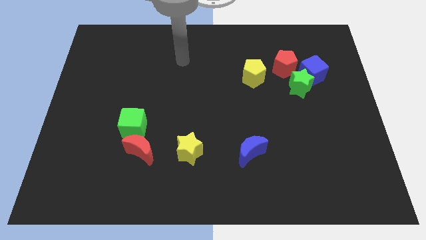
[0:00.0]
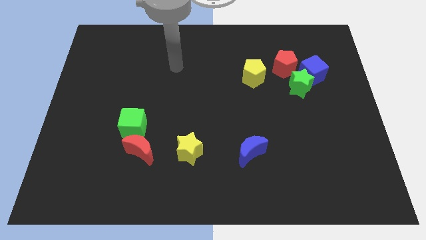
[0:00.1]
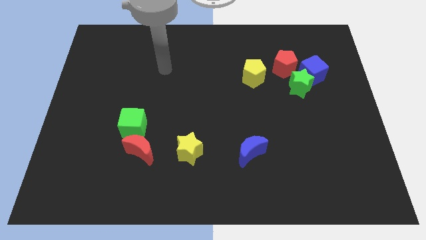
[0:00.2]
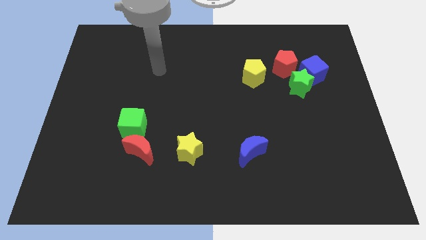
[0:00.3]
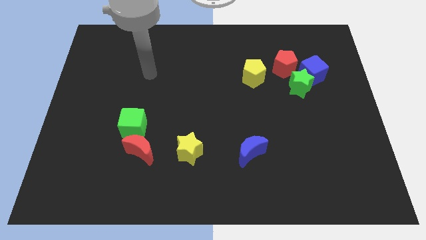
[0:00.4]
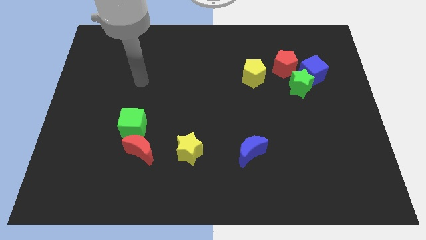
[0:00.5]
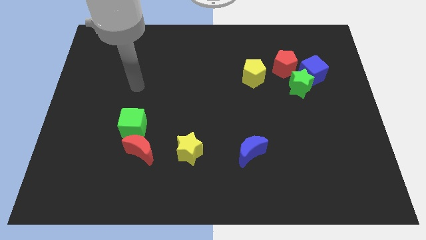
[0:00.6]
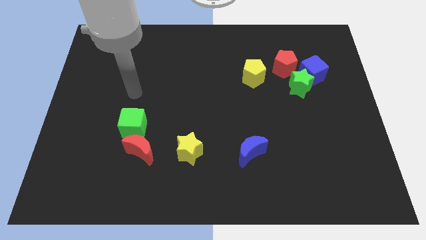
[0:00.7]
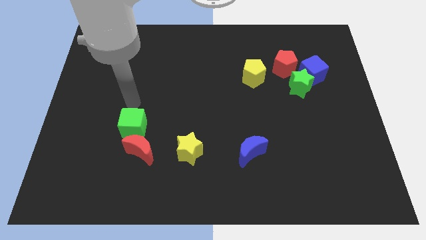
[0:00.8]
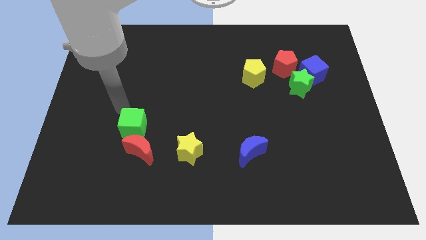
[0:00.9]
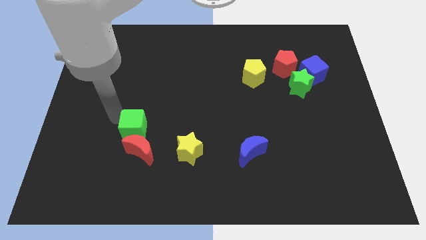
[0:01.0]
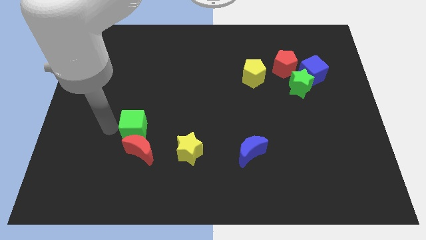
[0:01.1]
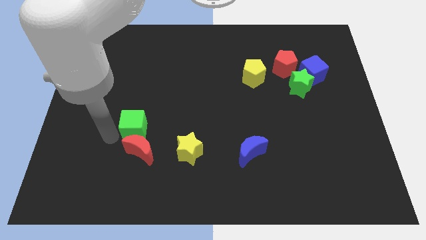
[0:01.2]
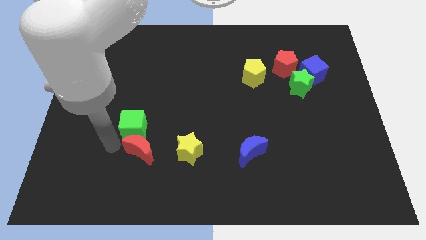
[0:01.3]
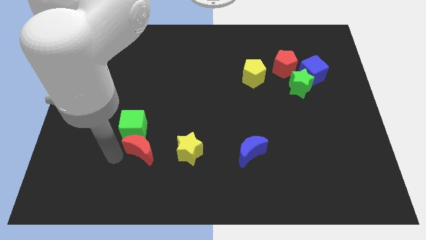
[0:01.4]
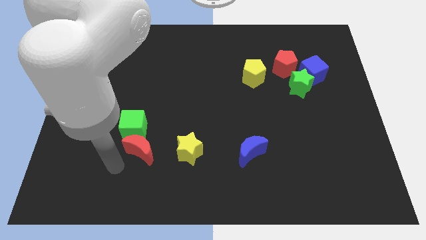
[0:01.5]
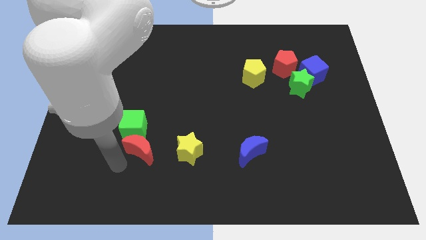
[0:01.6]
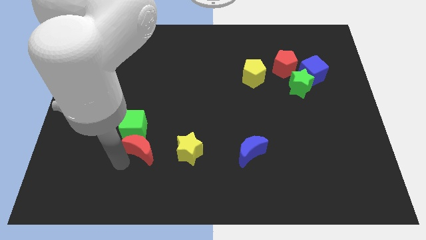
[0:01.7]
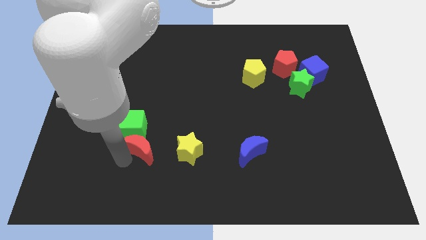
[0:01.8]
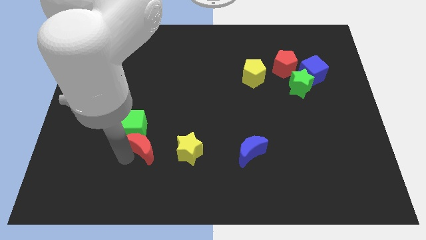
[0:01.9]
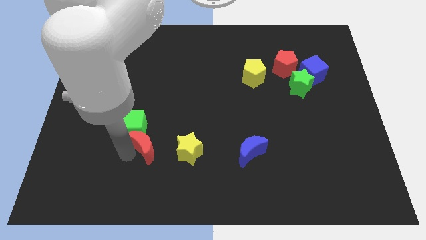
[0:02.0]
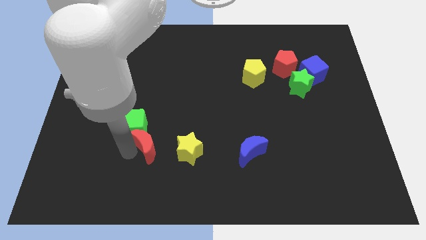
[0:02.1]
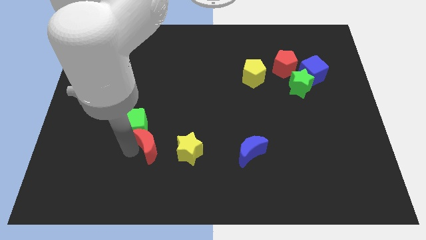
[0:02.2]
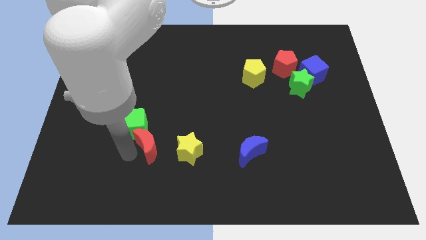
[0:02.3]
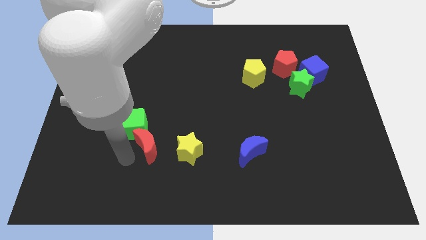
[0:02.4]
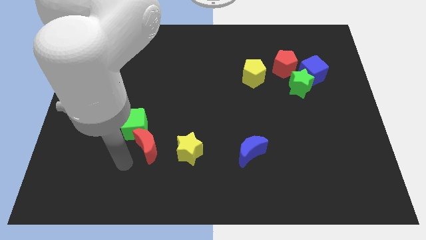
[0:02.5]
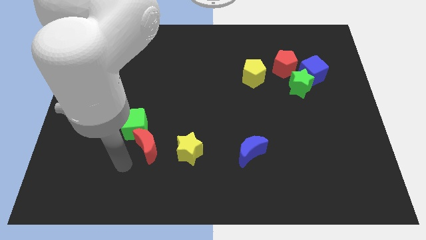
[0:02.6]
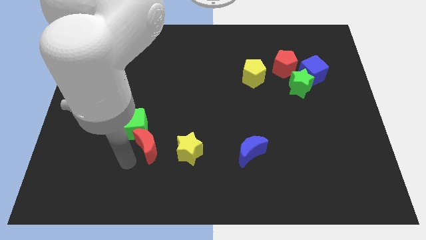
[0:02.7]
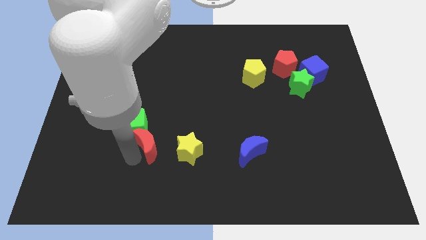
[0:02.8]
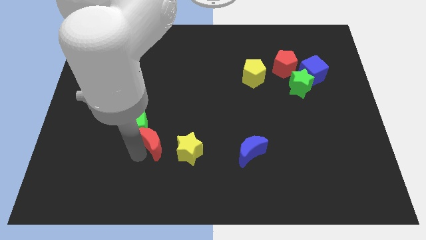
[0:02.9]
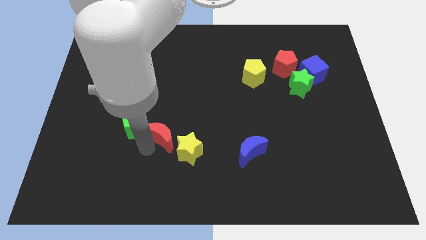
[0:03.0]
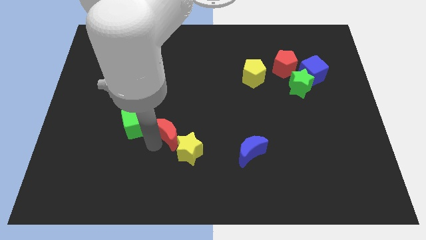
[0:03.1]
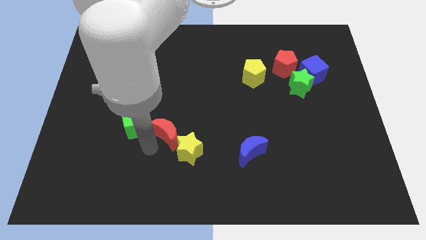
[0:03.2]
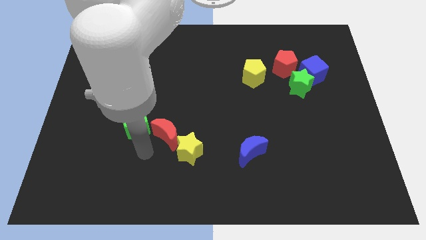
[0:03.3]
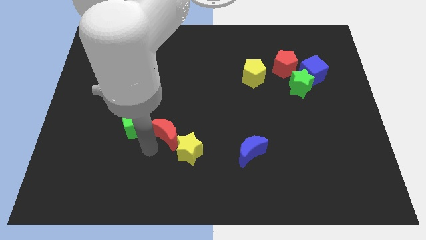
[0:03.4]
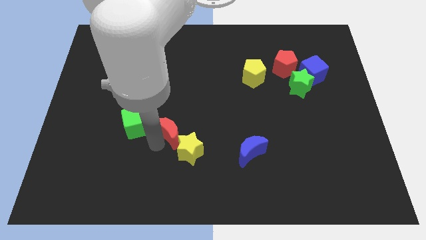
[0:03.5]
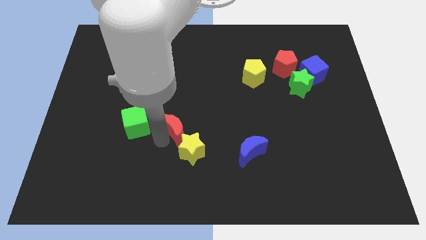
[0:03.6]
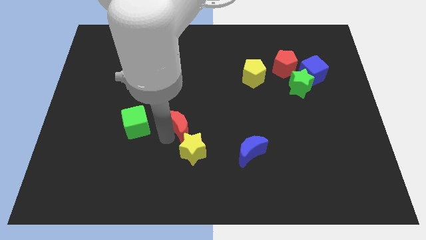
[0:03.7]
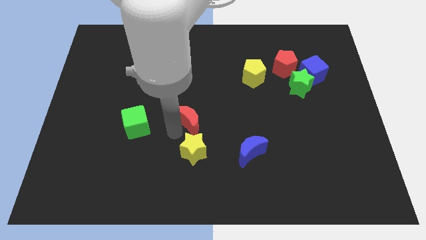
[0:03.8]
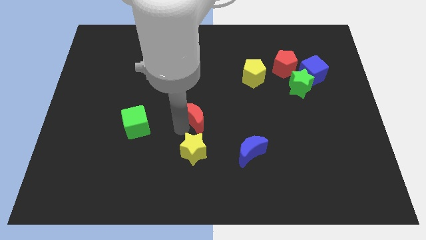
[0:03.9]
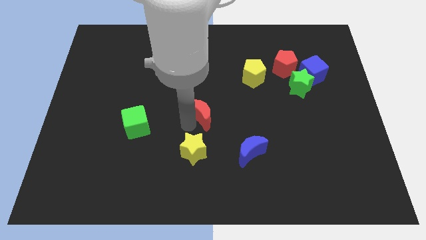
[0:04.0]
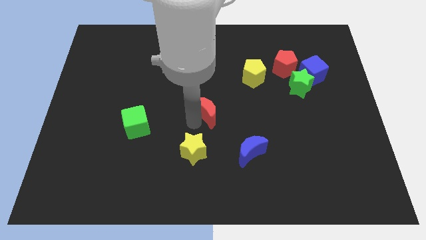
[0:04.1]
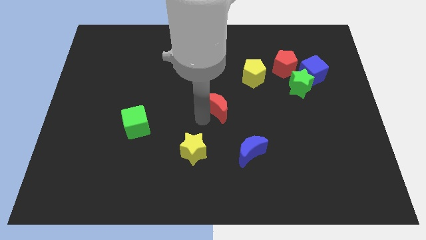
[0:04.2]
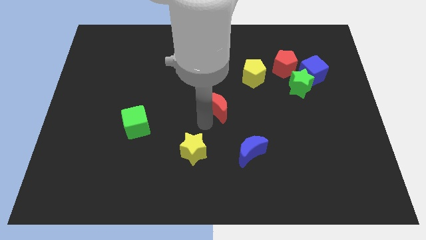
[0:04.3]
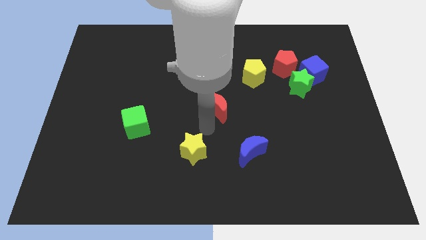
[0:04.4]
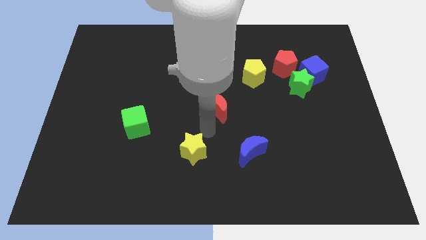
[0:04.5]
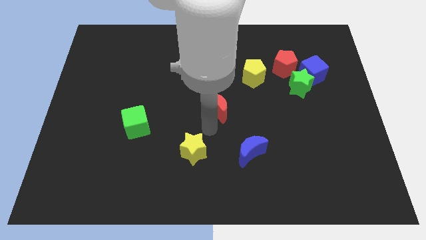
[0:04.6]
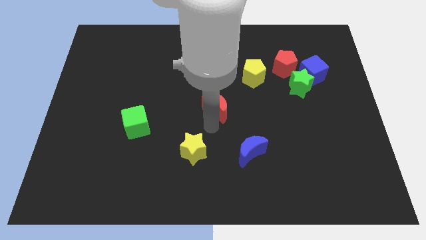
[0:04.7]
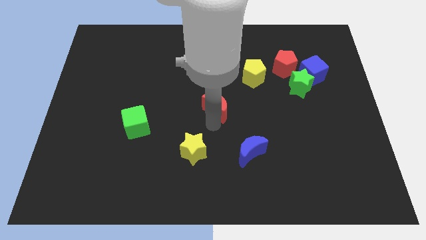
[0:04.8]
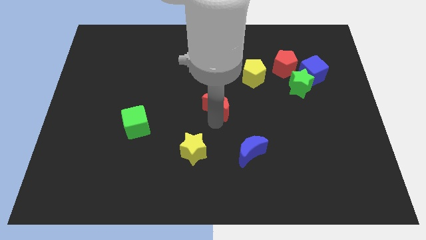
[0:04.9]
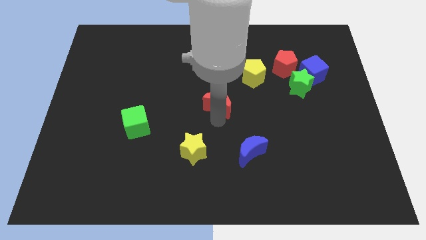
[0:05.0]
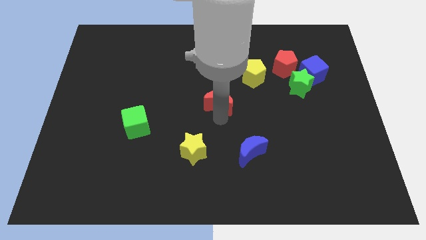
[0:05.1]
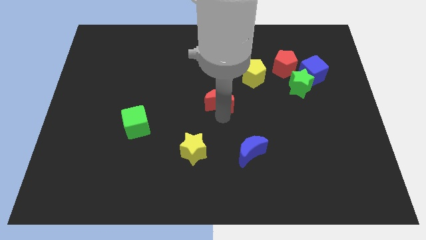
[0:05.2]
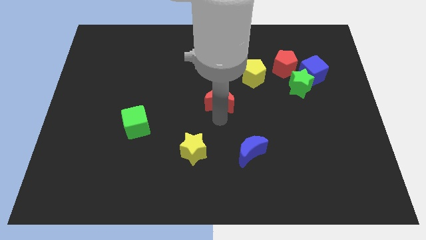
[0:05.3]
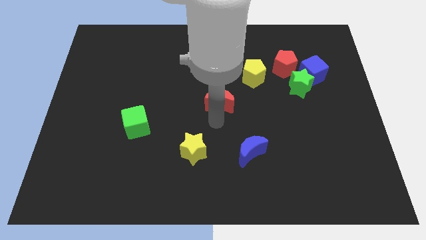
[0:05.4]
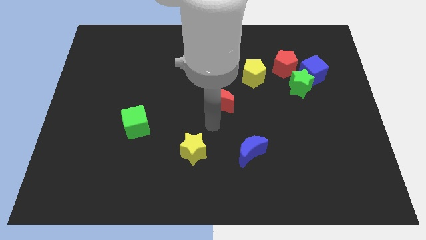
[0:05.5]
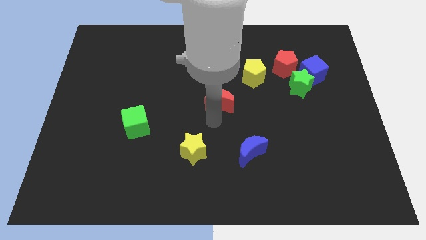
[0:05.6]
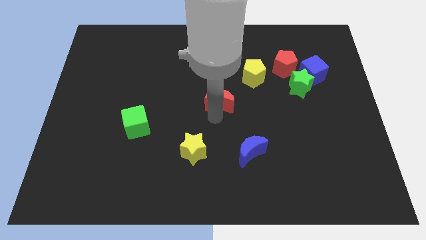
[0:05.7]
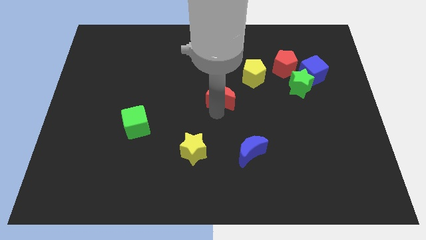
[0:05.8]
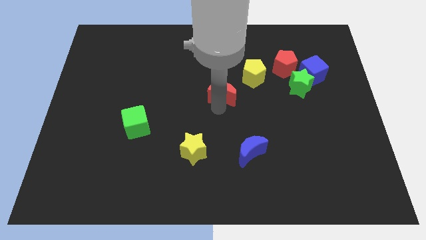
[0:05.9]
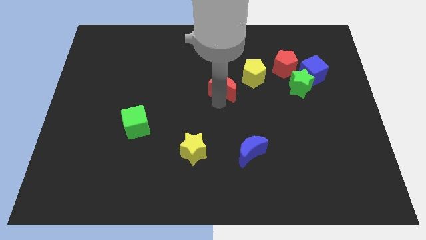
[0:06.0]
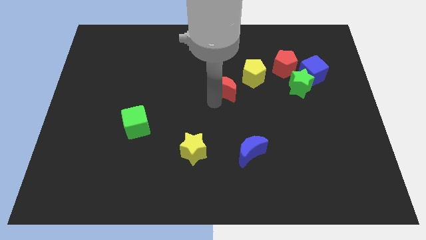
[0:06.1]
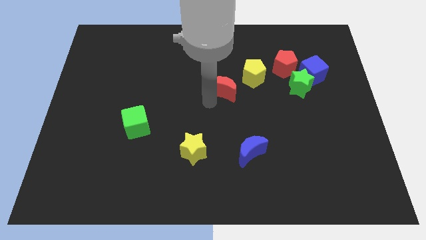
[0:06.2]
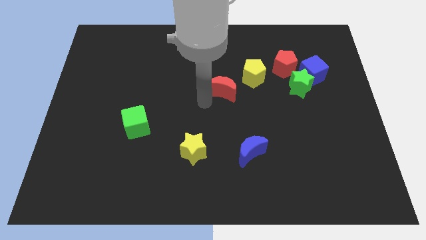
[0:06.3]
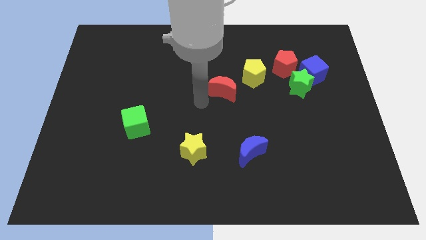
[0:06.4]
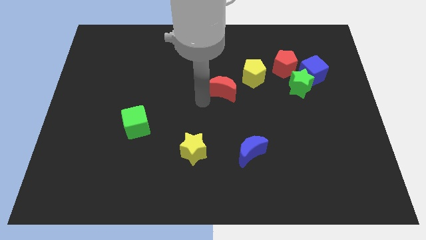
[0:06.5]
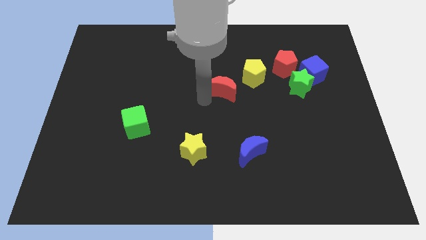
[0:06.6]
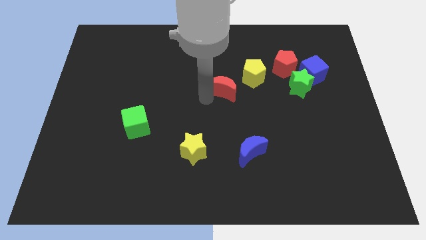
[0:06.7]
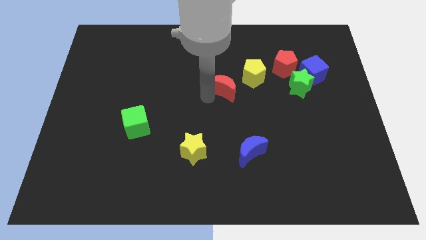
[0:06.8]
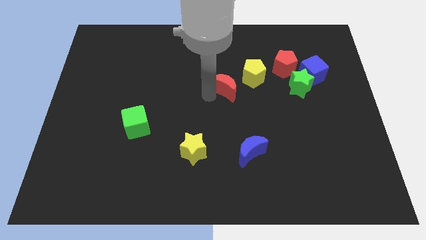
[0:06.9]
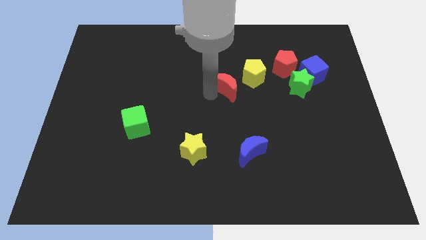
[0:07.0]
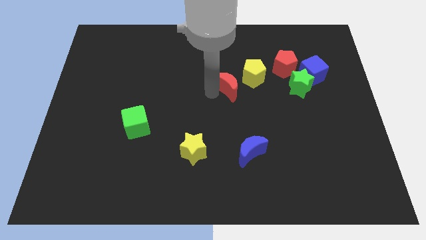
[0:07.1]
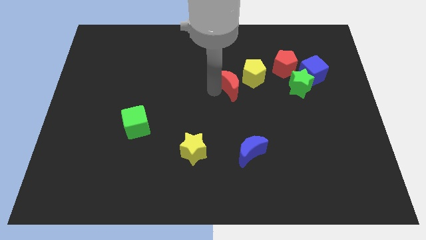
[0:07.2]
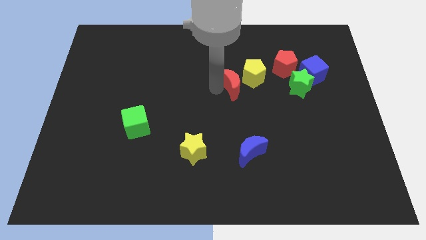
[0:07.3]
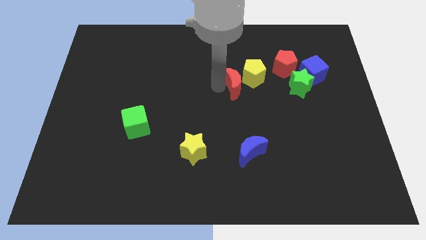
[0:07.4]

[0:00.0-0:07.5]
push the red moon towards the yellow pentagon

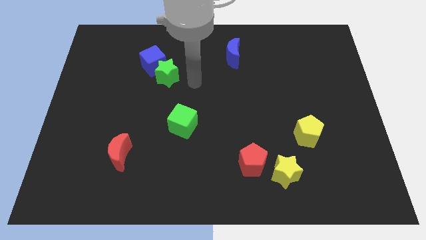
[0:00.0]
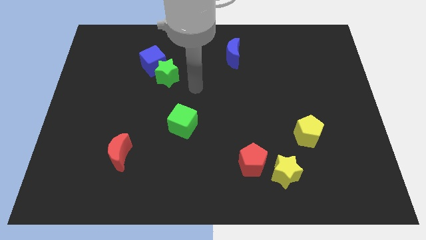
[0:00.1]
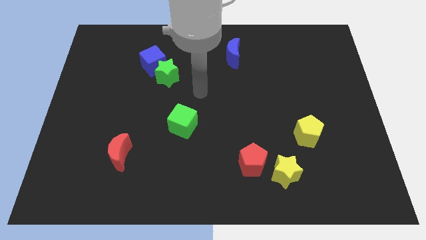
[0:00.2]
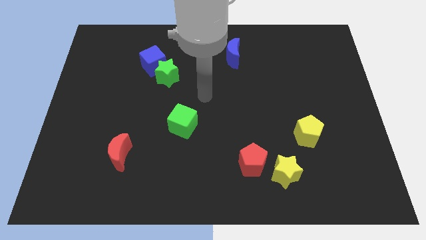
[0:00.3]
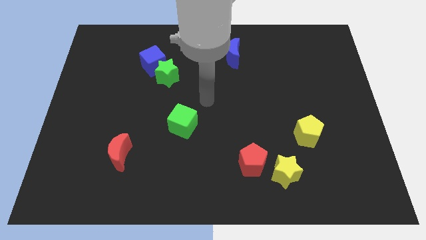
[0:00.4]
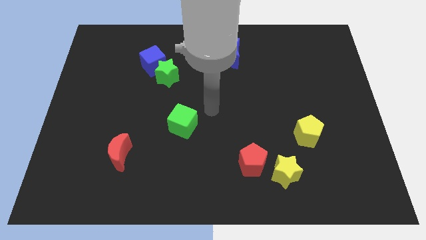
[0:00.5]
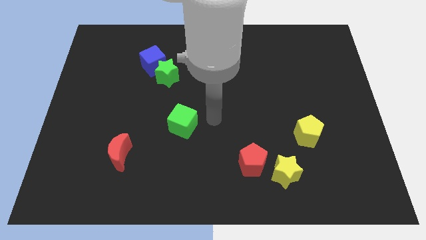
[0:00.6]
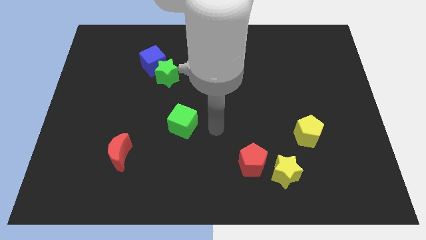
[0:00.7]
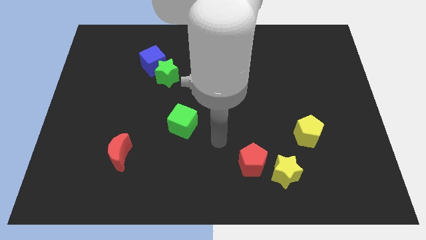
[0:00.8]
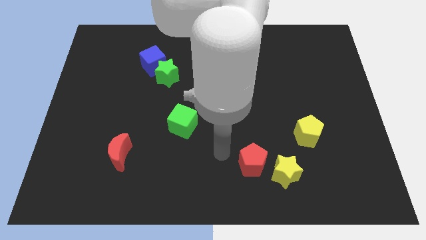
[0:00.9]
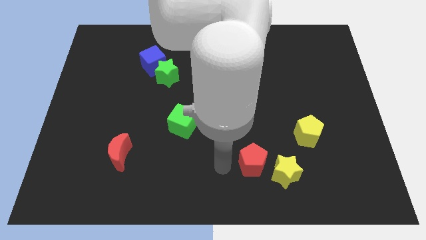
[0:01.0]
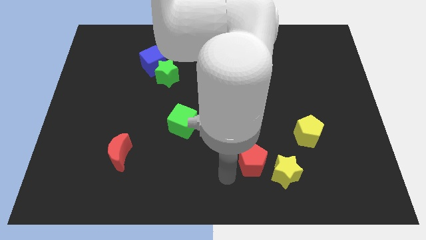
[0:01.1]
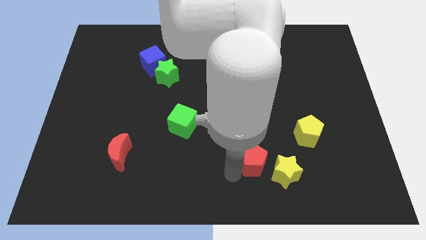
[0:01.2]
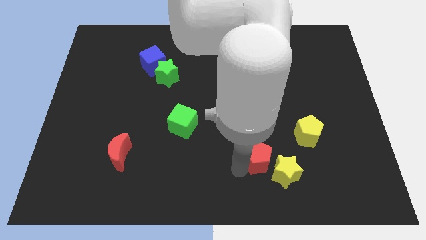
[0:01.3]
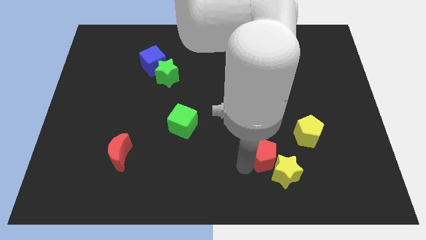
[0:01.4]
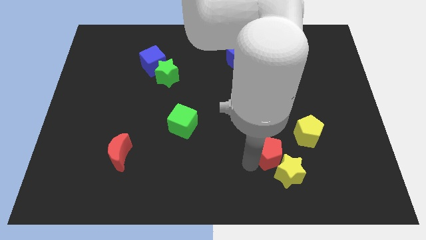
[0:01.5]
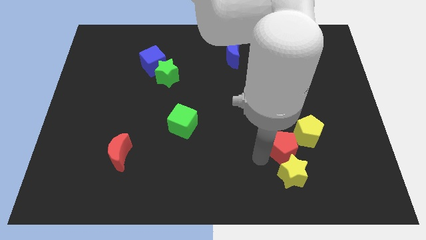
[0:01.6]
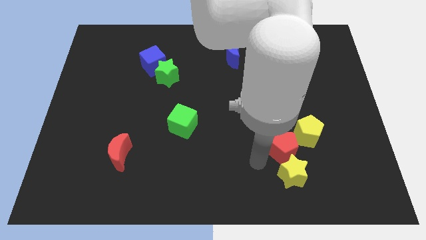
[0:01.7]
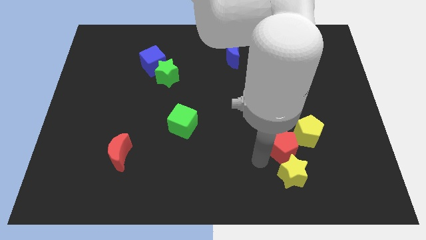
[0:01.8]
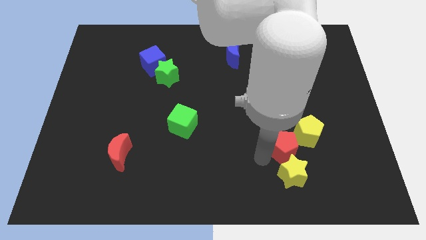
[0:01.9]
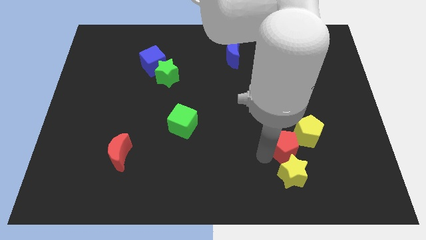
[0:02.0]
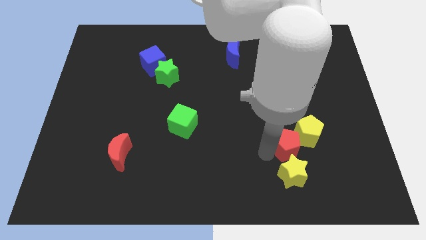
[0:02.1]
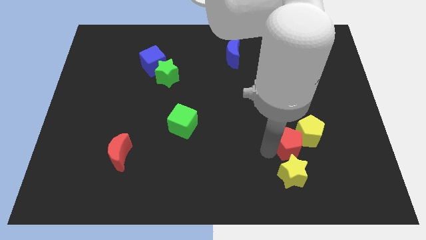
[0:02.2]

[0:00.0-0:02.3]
push the red pentagon towards the yellow pentagon
